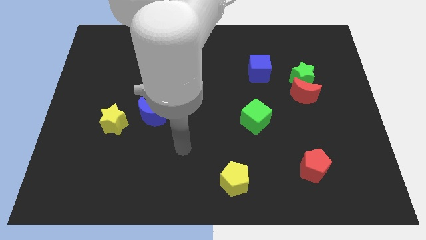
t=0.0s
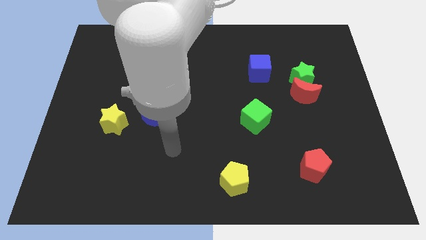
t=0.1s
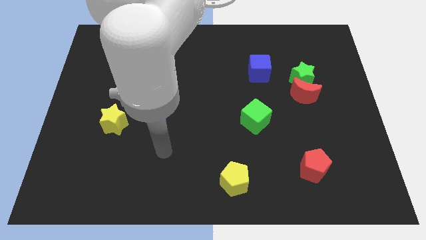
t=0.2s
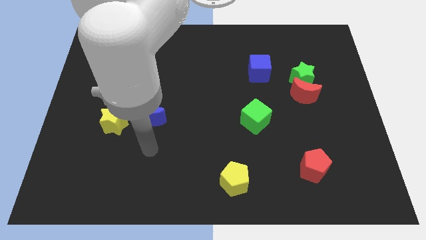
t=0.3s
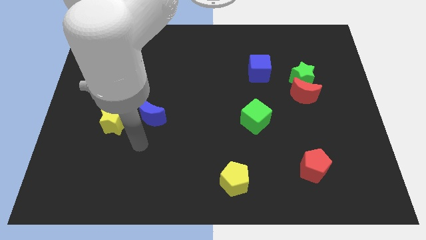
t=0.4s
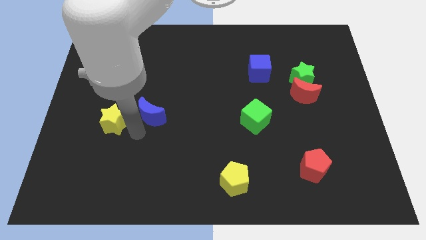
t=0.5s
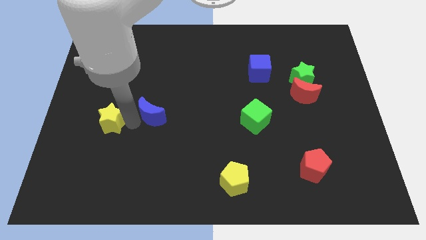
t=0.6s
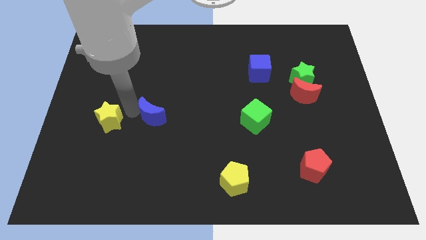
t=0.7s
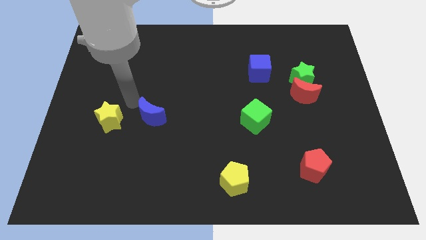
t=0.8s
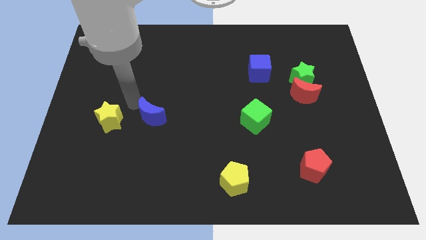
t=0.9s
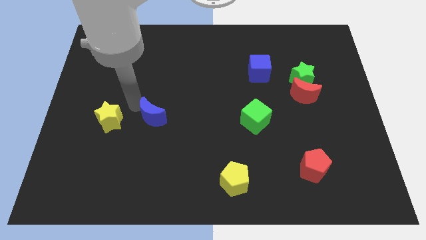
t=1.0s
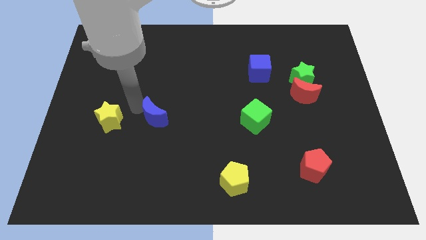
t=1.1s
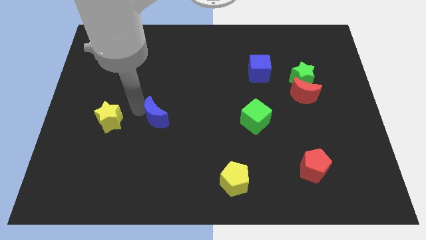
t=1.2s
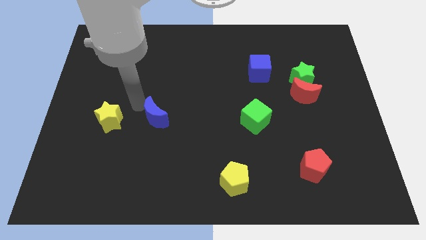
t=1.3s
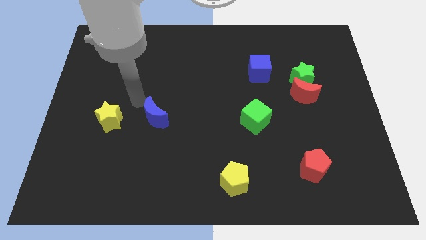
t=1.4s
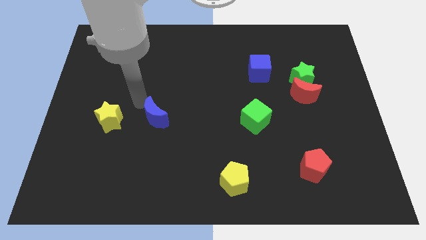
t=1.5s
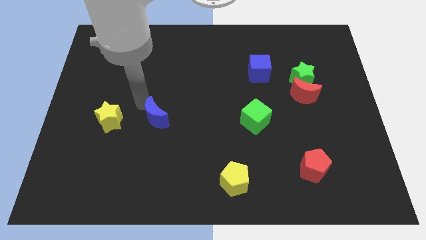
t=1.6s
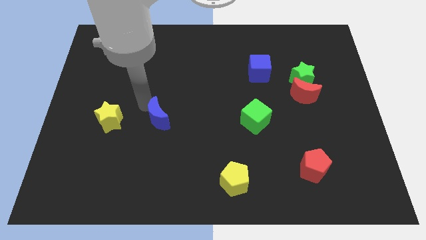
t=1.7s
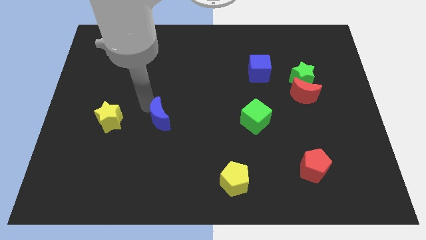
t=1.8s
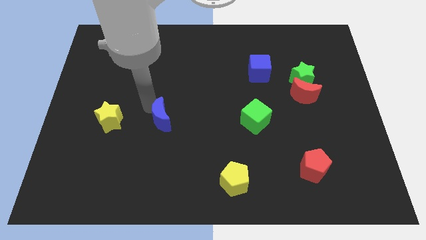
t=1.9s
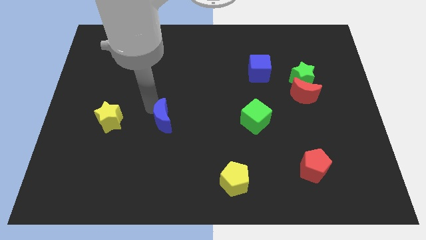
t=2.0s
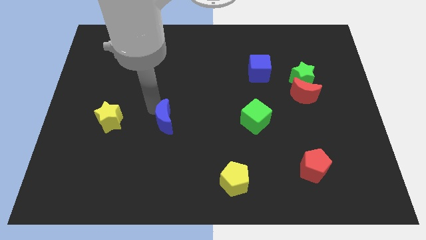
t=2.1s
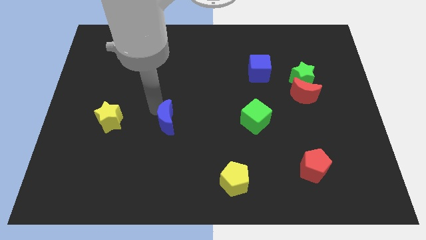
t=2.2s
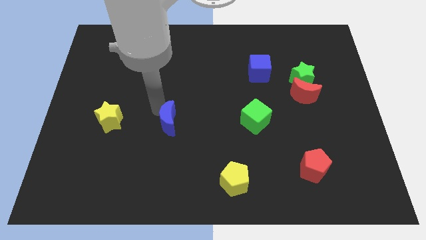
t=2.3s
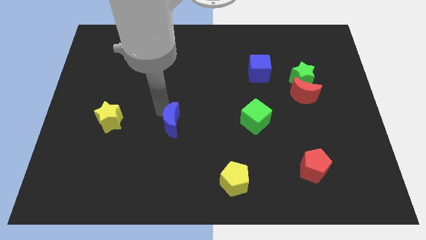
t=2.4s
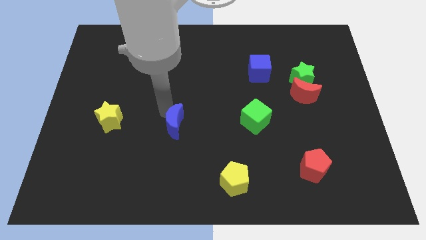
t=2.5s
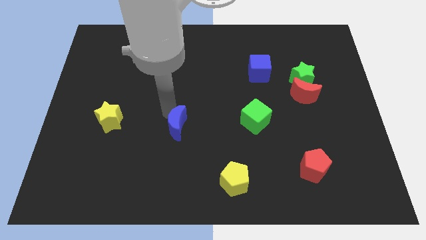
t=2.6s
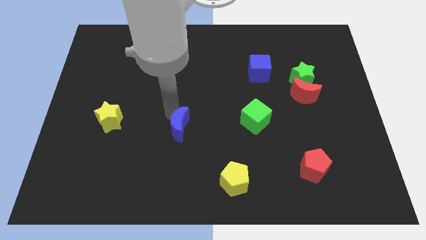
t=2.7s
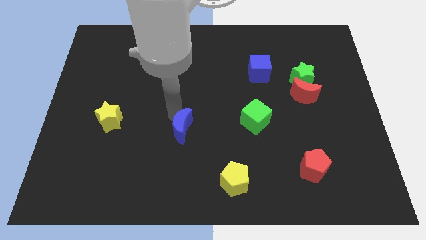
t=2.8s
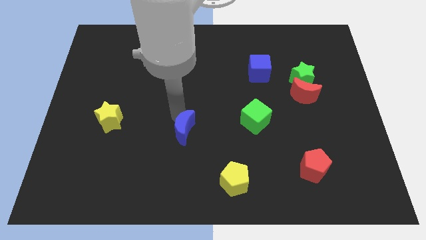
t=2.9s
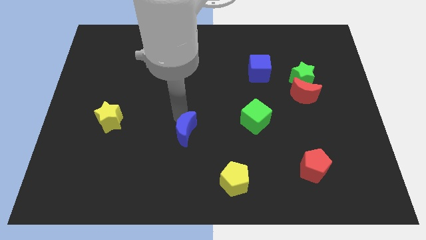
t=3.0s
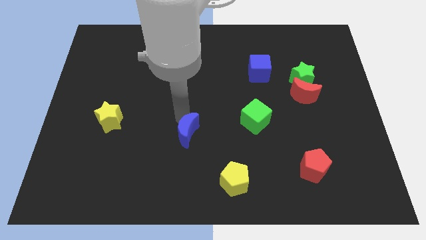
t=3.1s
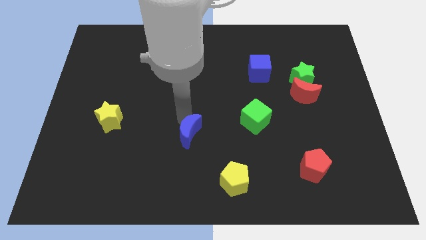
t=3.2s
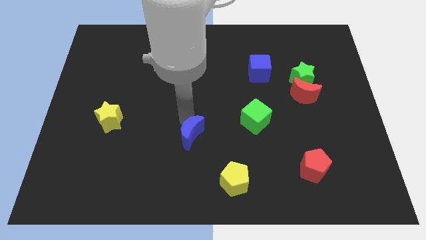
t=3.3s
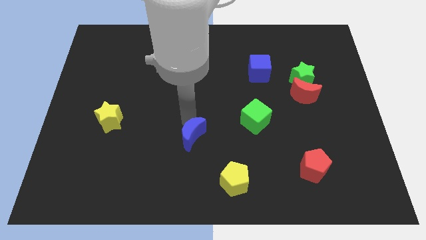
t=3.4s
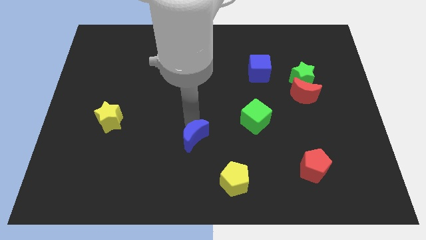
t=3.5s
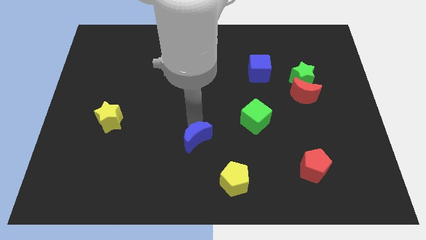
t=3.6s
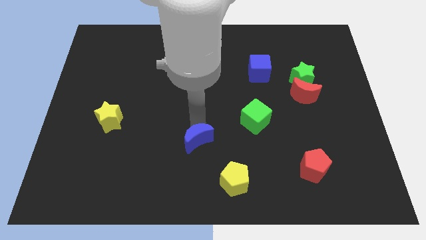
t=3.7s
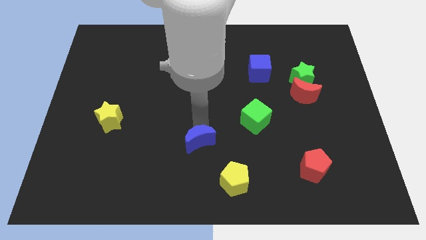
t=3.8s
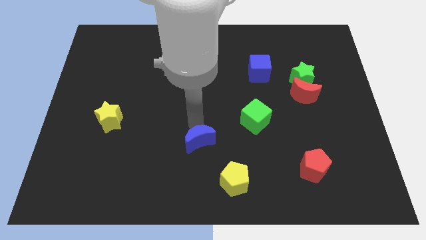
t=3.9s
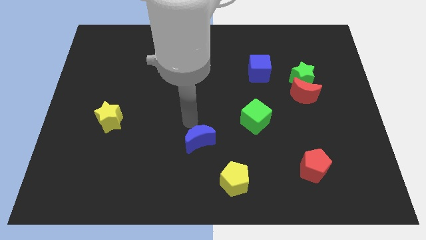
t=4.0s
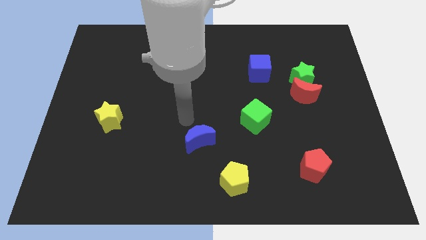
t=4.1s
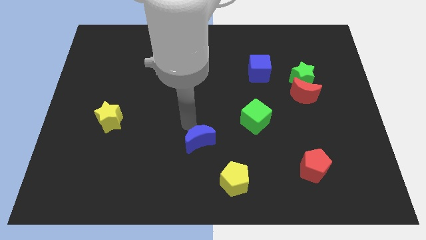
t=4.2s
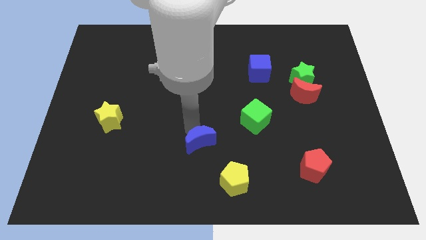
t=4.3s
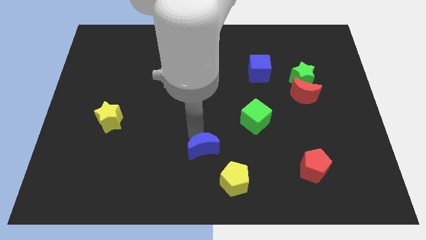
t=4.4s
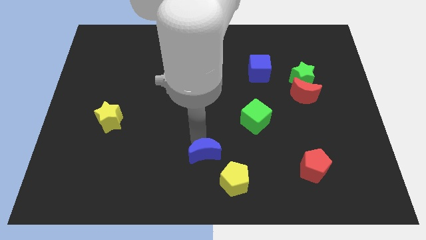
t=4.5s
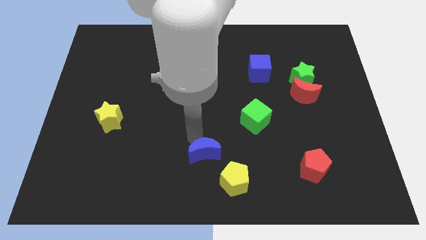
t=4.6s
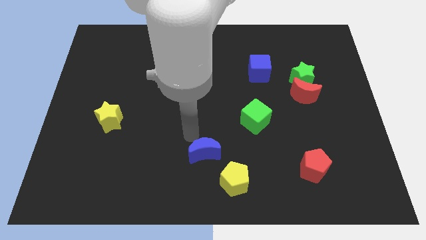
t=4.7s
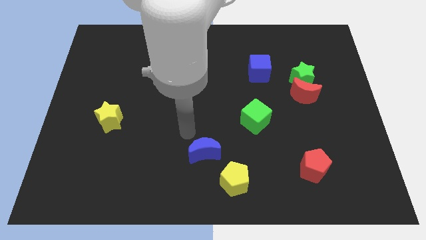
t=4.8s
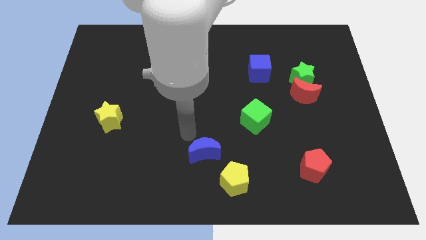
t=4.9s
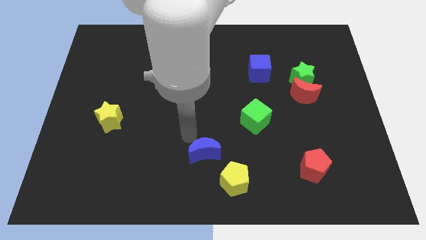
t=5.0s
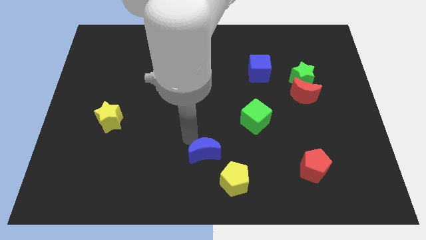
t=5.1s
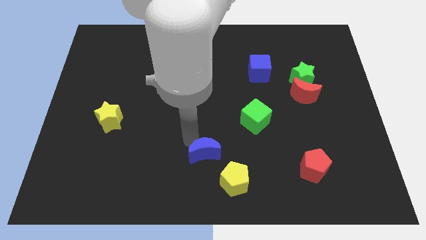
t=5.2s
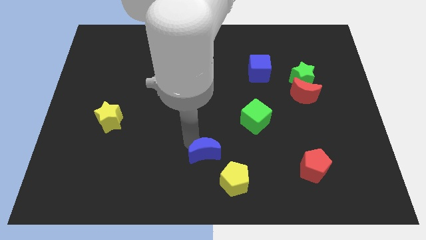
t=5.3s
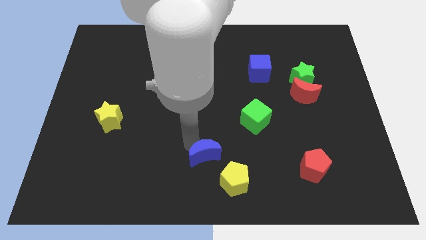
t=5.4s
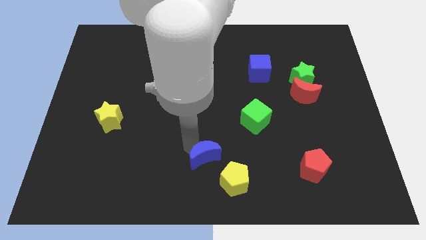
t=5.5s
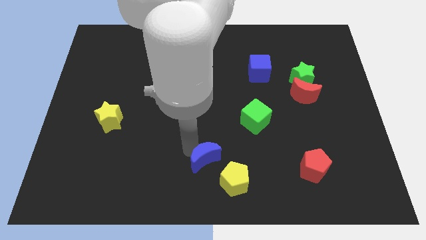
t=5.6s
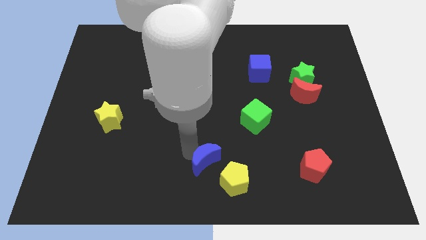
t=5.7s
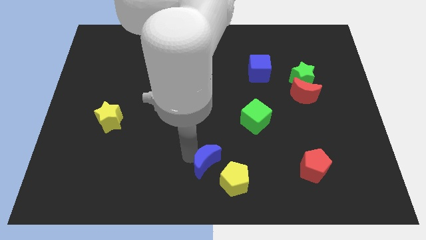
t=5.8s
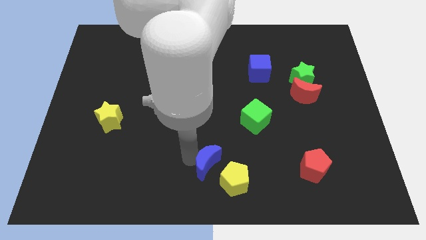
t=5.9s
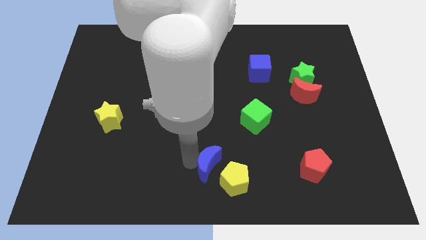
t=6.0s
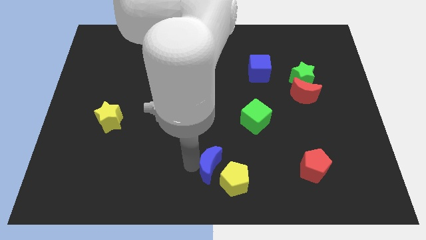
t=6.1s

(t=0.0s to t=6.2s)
slide the blue moon next to the yellow pentagon

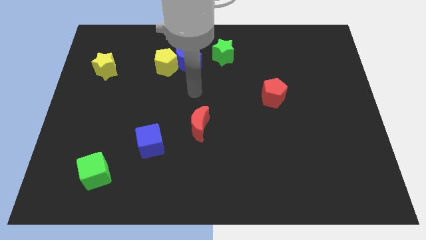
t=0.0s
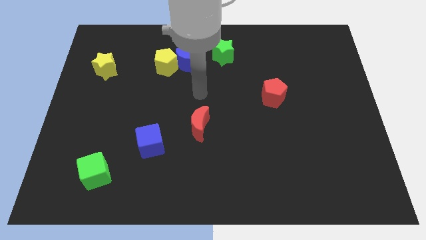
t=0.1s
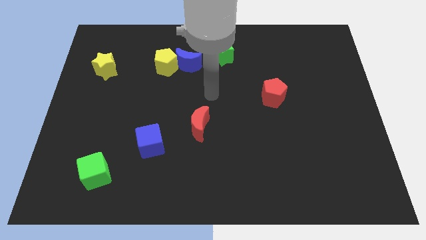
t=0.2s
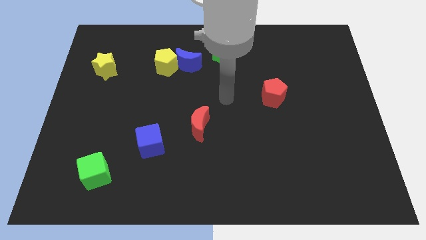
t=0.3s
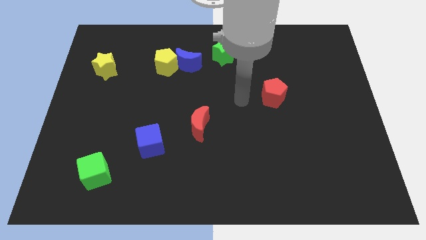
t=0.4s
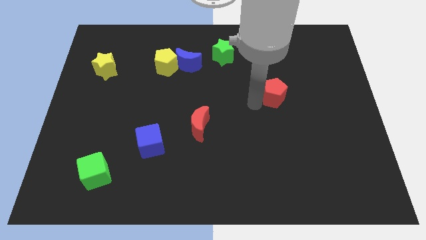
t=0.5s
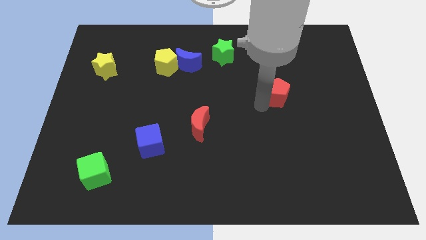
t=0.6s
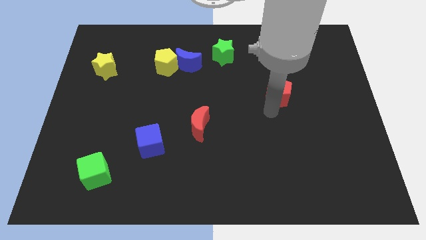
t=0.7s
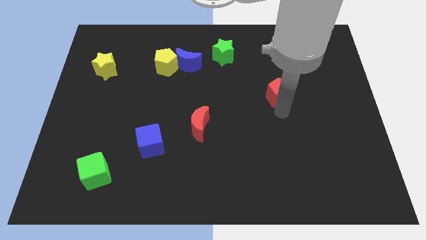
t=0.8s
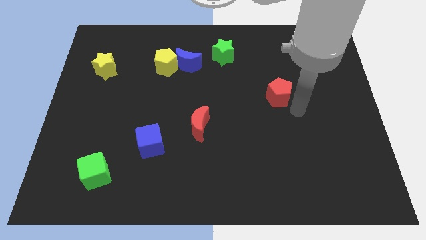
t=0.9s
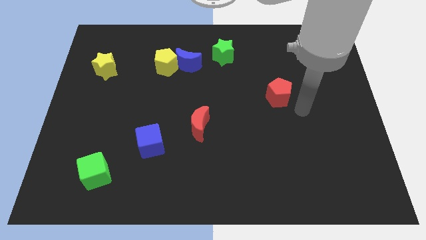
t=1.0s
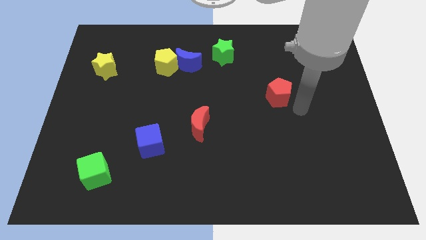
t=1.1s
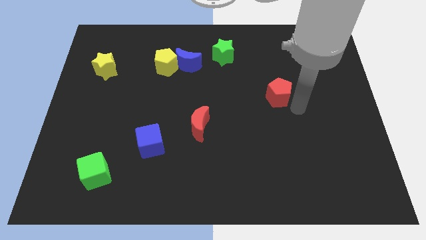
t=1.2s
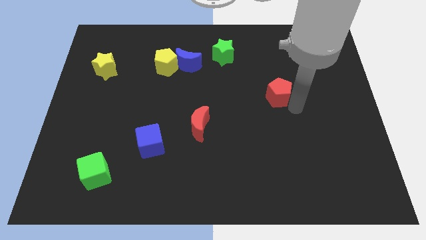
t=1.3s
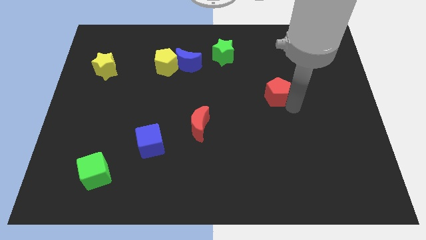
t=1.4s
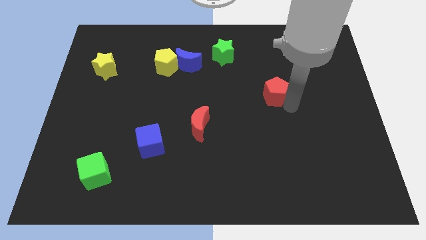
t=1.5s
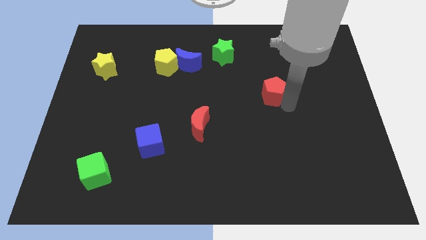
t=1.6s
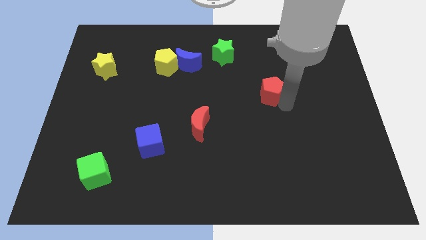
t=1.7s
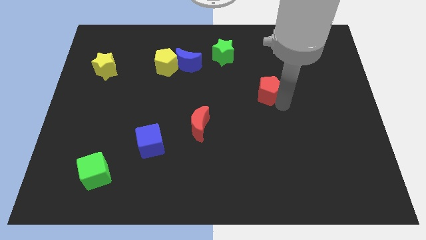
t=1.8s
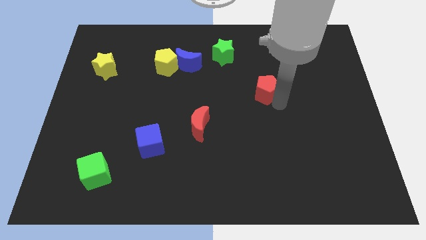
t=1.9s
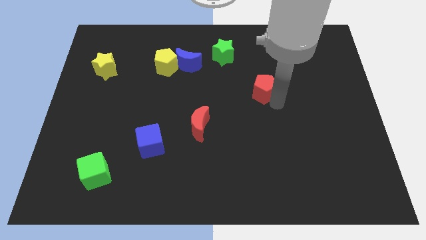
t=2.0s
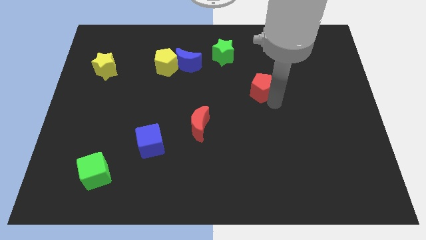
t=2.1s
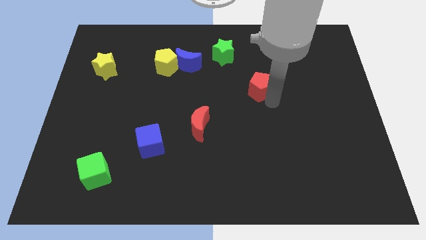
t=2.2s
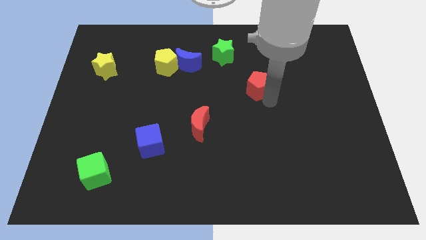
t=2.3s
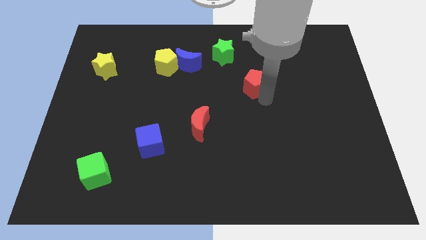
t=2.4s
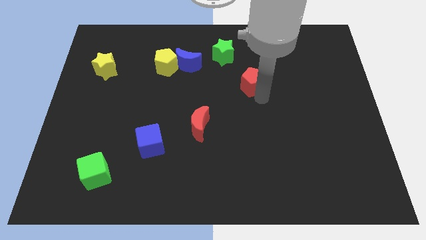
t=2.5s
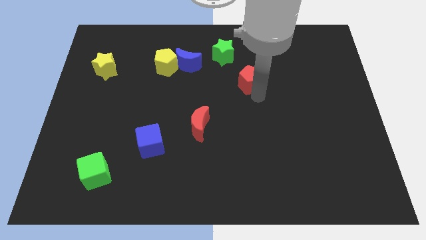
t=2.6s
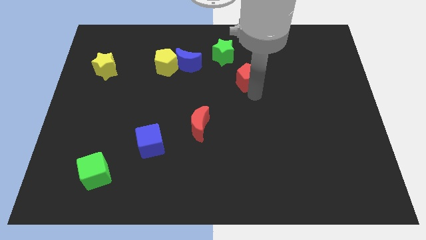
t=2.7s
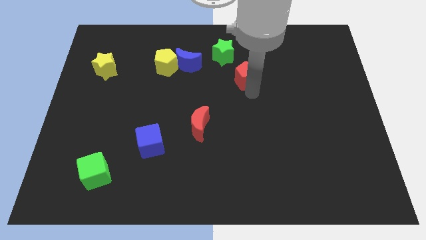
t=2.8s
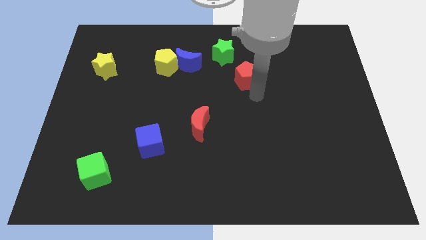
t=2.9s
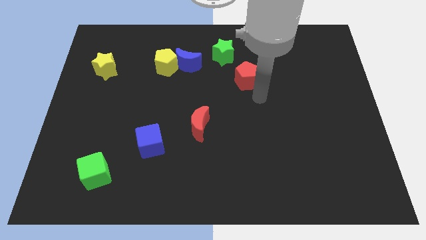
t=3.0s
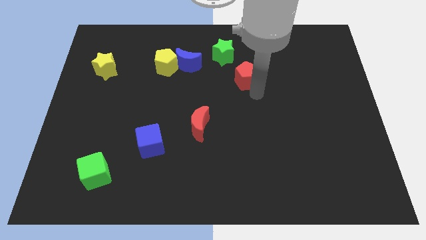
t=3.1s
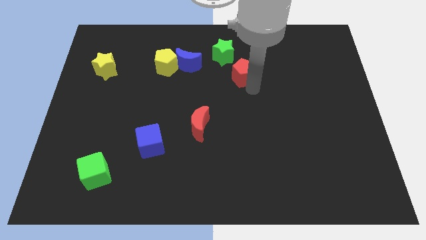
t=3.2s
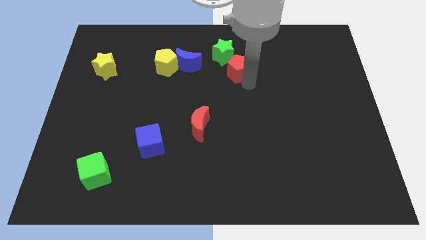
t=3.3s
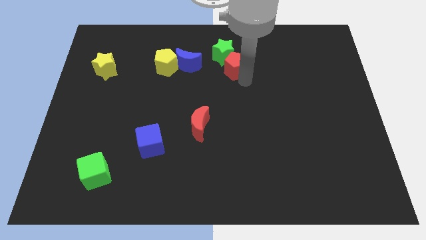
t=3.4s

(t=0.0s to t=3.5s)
push the red pentagon close to the green star
